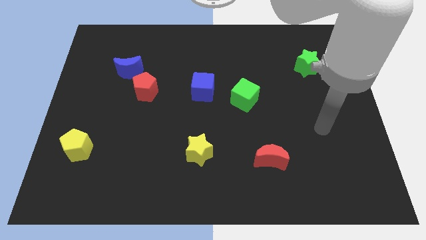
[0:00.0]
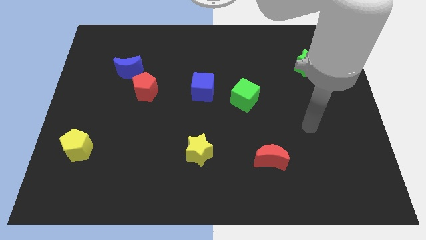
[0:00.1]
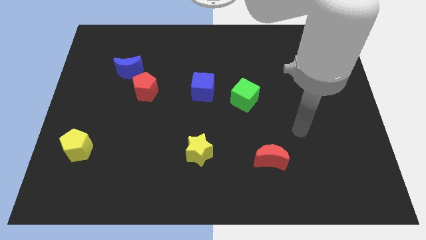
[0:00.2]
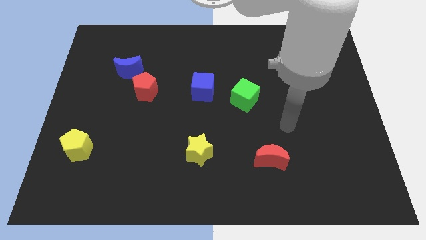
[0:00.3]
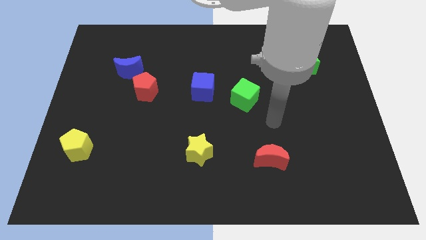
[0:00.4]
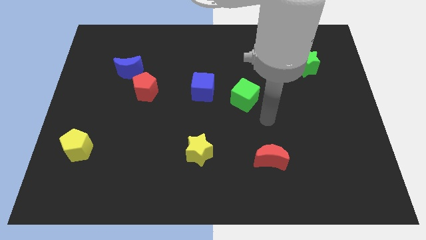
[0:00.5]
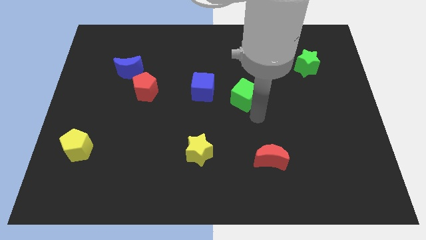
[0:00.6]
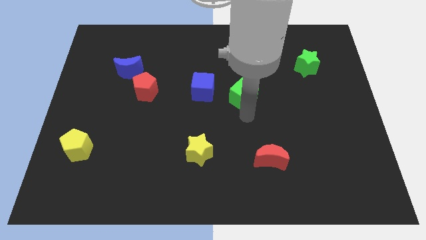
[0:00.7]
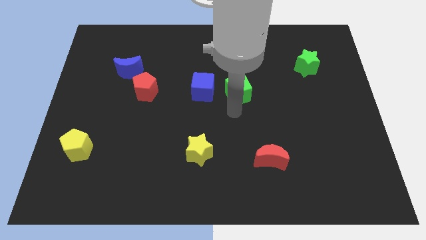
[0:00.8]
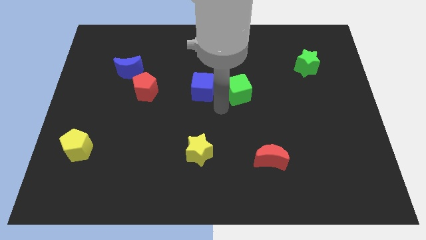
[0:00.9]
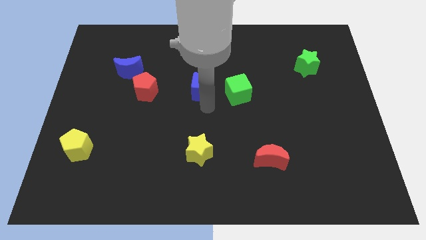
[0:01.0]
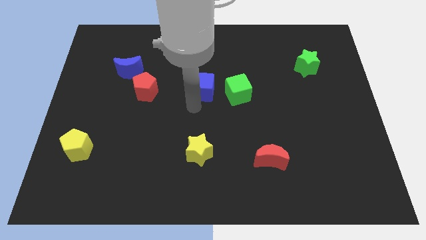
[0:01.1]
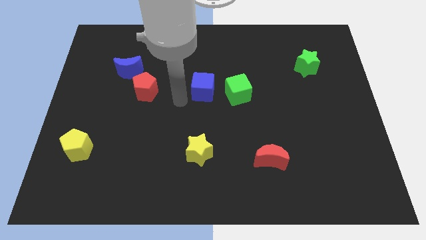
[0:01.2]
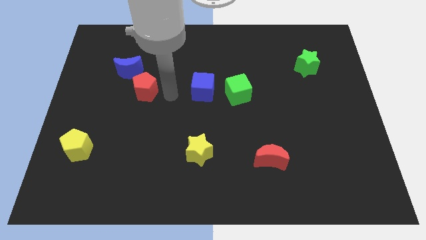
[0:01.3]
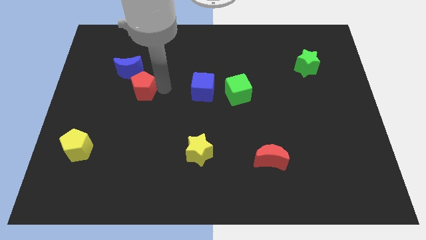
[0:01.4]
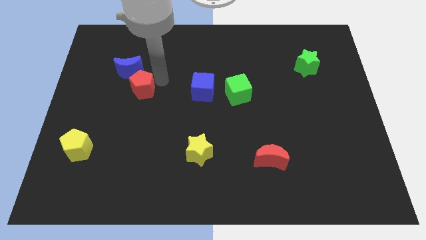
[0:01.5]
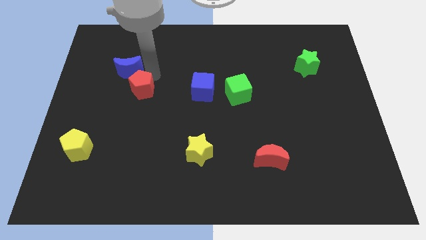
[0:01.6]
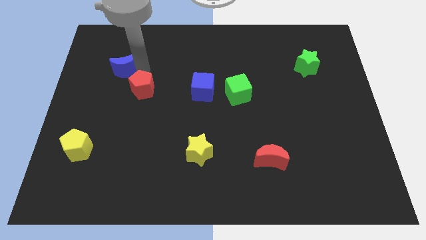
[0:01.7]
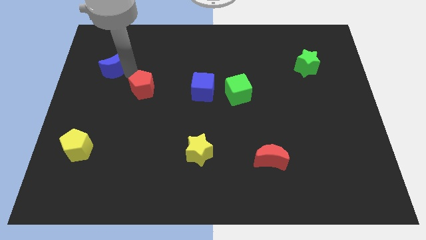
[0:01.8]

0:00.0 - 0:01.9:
pull the red pentagon apart from the blue moon

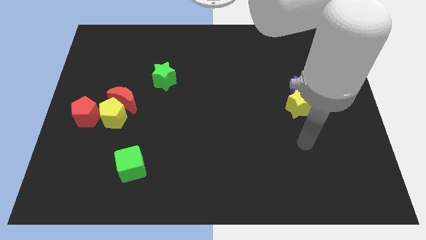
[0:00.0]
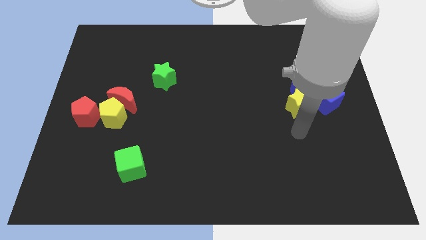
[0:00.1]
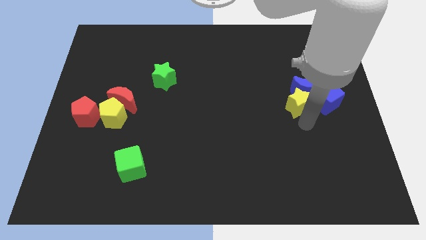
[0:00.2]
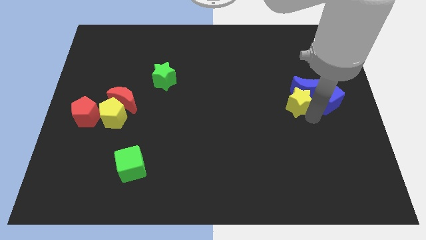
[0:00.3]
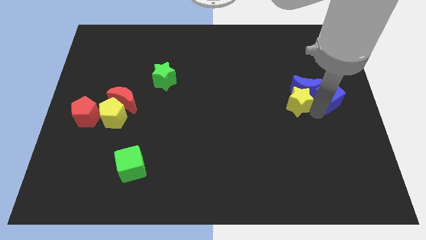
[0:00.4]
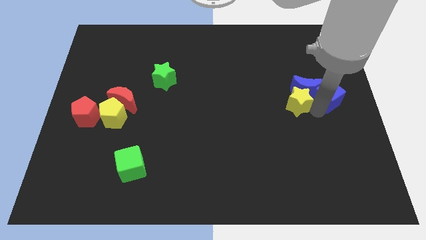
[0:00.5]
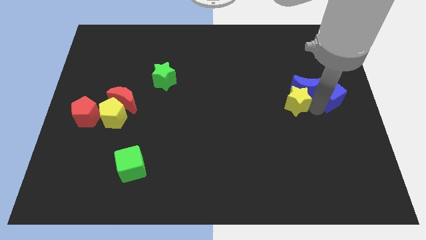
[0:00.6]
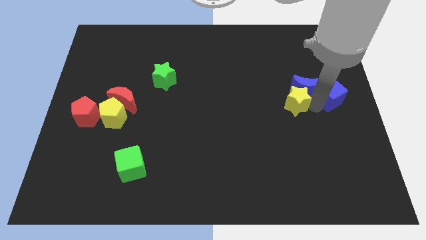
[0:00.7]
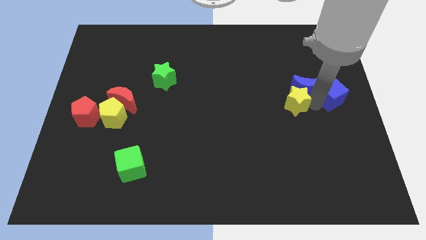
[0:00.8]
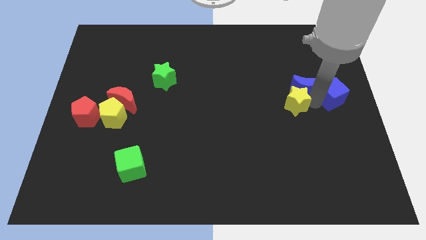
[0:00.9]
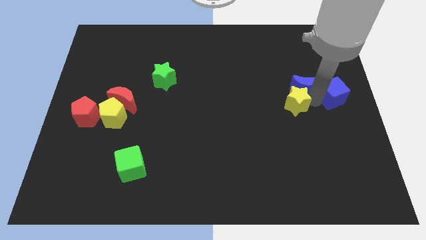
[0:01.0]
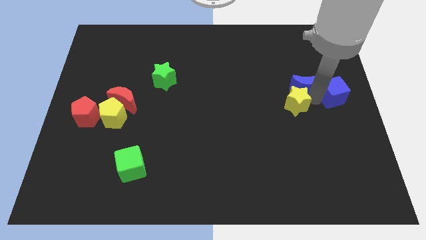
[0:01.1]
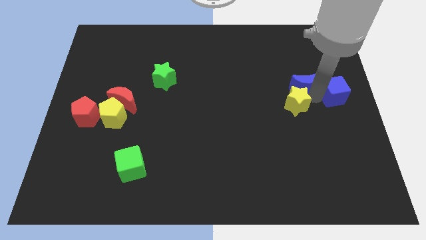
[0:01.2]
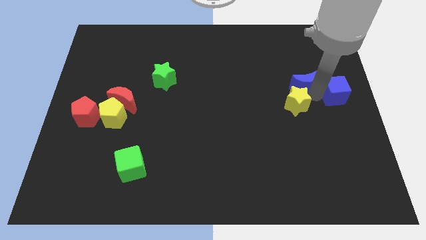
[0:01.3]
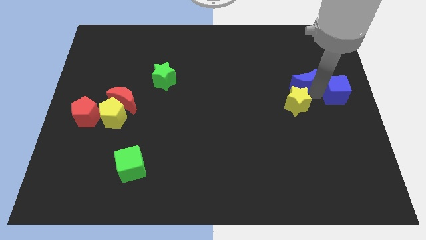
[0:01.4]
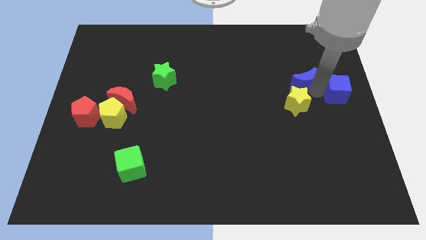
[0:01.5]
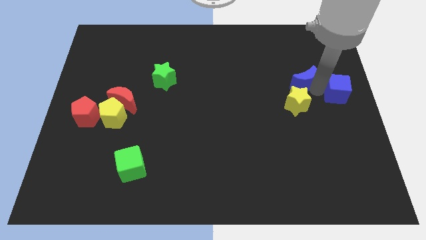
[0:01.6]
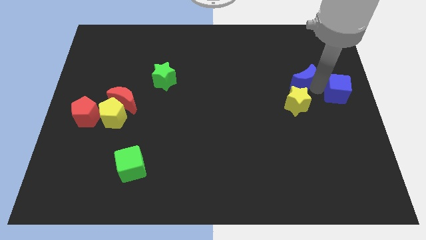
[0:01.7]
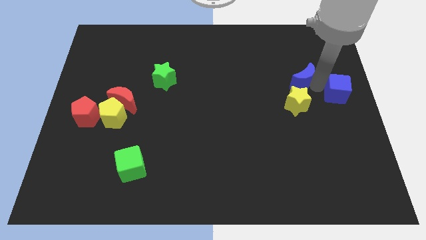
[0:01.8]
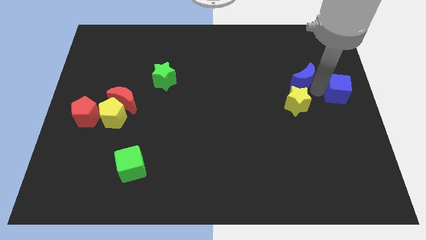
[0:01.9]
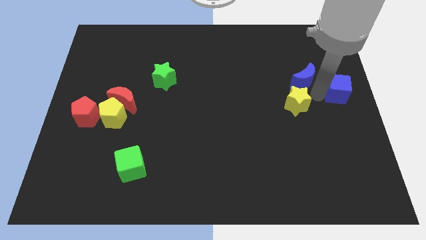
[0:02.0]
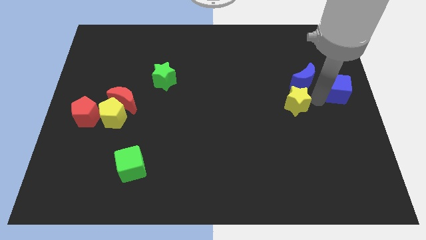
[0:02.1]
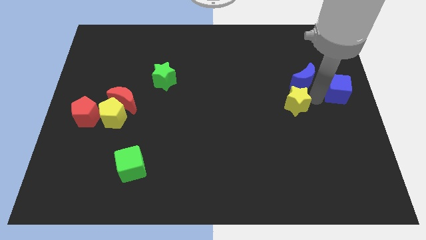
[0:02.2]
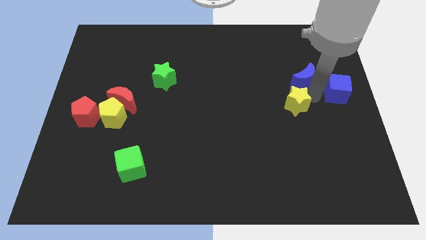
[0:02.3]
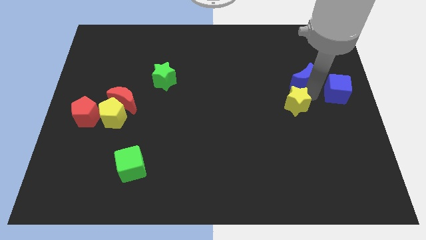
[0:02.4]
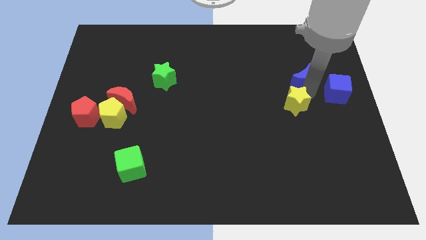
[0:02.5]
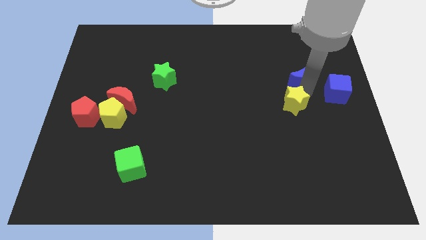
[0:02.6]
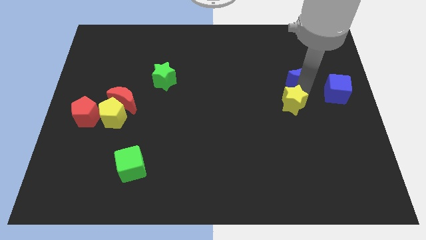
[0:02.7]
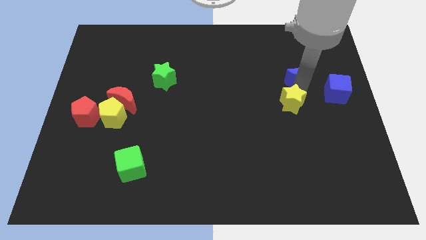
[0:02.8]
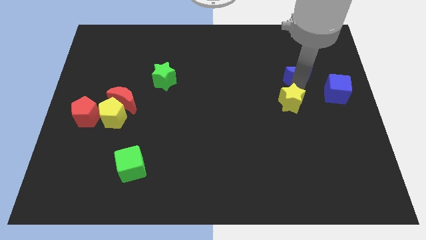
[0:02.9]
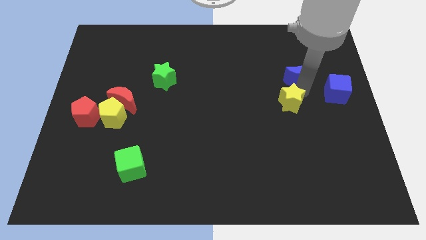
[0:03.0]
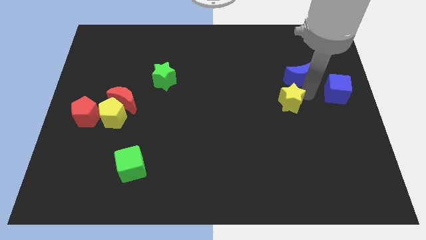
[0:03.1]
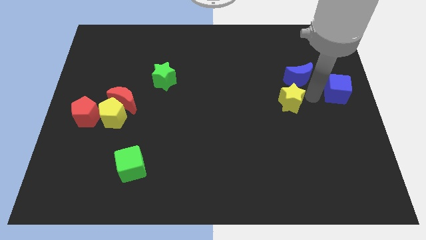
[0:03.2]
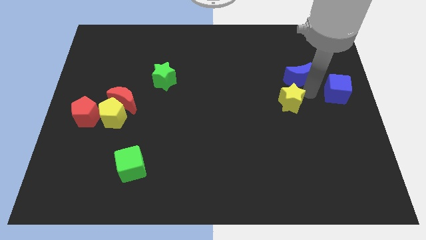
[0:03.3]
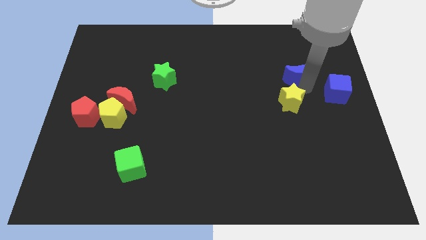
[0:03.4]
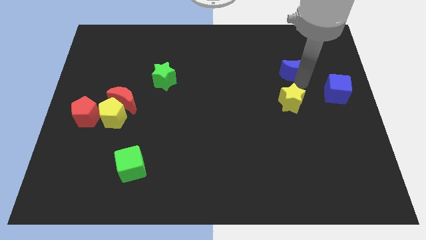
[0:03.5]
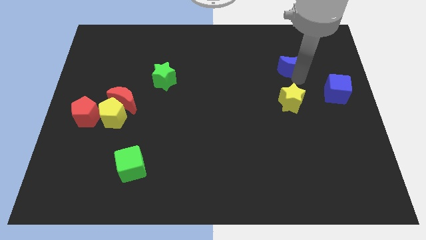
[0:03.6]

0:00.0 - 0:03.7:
move the blue moon away from the yellow star and blue cube

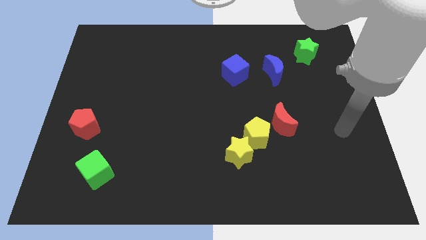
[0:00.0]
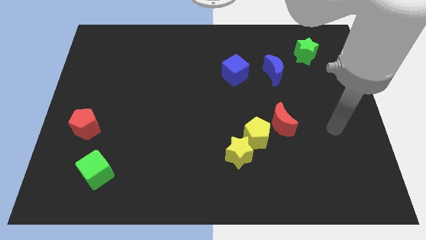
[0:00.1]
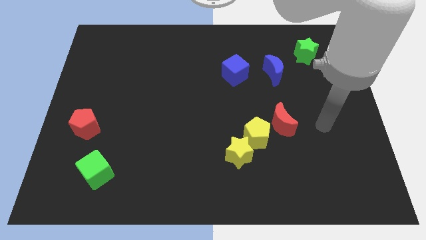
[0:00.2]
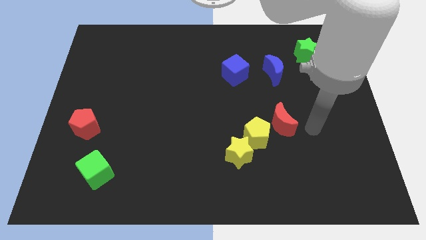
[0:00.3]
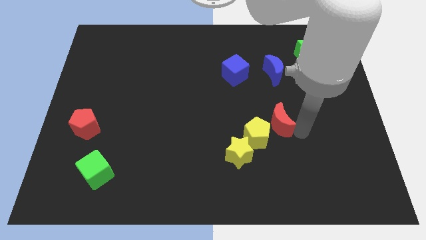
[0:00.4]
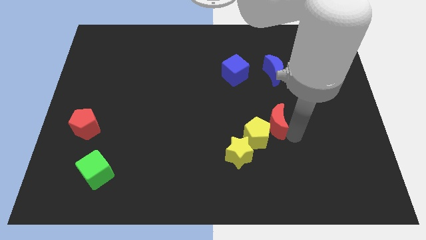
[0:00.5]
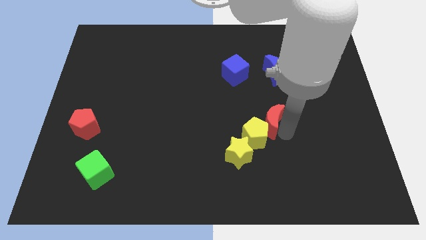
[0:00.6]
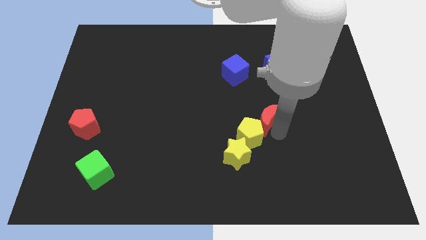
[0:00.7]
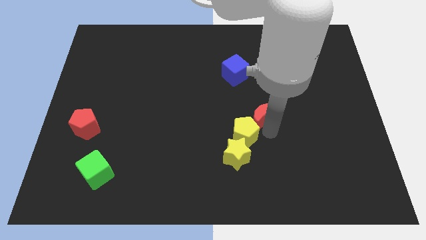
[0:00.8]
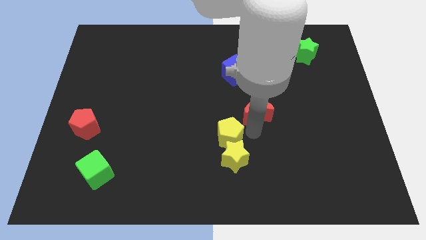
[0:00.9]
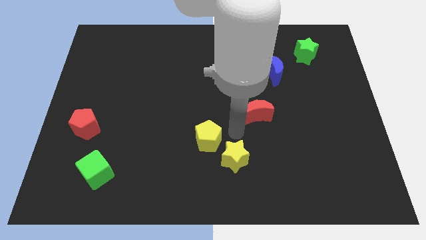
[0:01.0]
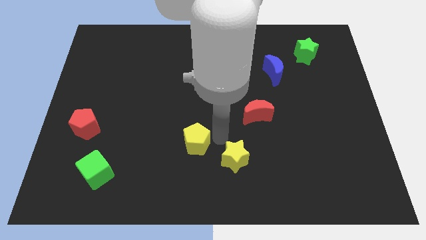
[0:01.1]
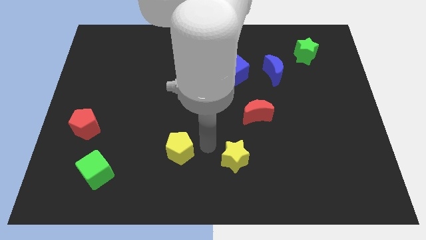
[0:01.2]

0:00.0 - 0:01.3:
move the yellow star away from the yellow pentagon

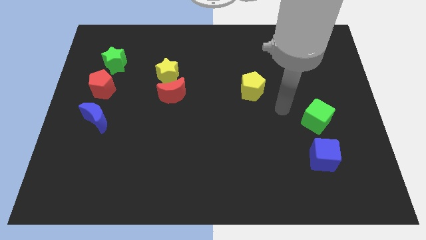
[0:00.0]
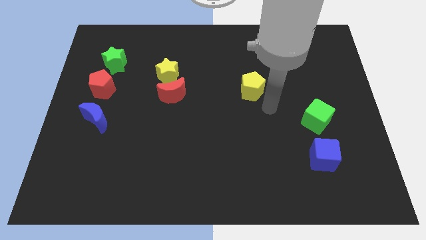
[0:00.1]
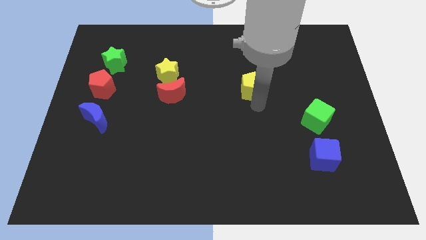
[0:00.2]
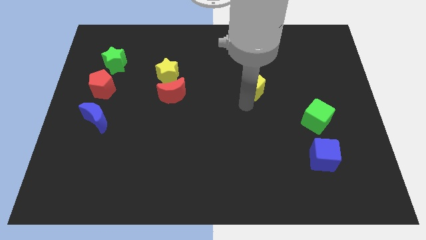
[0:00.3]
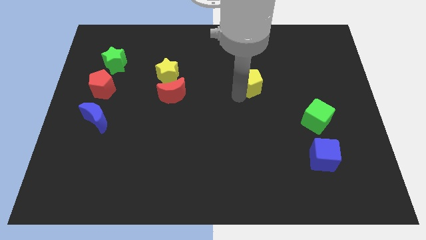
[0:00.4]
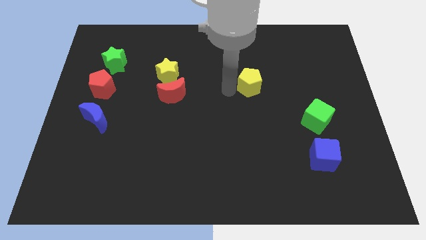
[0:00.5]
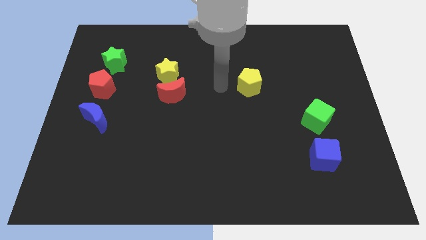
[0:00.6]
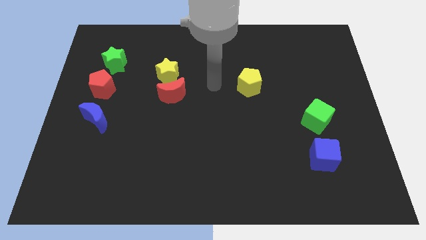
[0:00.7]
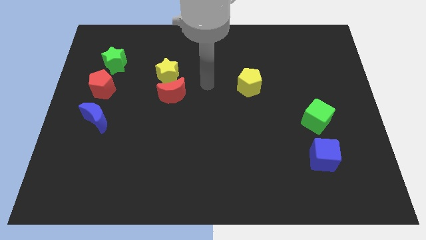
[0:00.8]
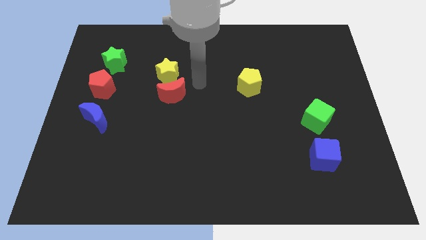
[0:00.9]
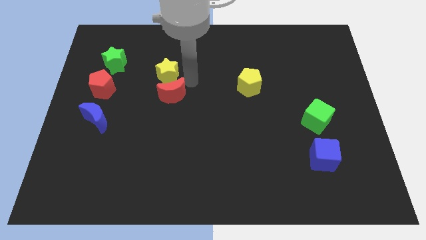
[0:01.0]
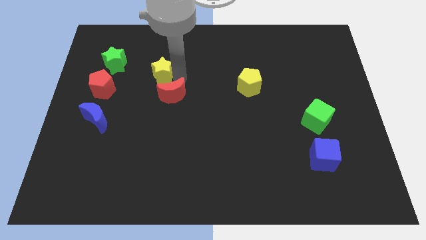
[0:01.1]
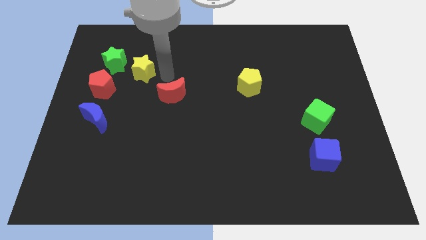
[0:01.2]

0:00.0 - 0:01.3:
separate the red moon from the yellow star

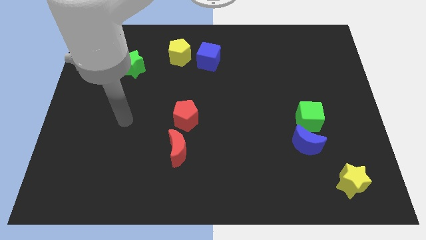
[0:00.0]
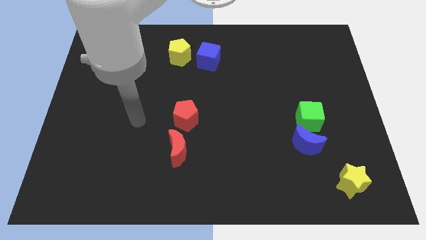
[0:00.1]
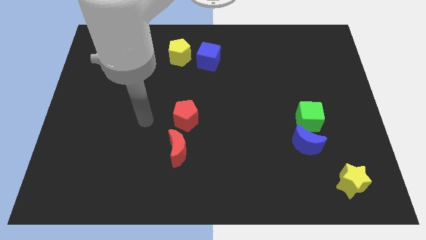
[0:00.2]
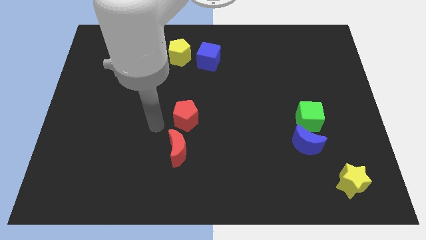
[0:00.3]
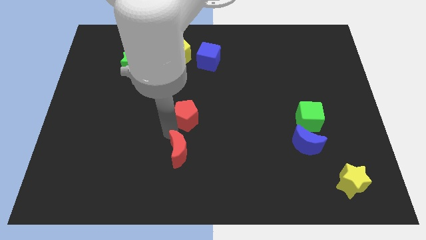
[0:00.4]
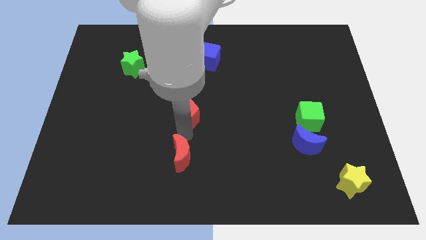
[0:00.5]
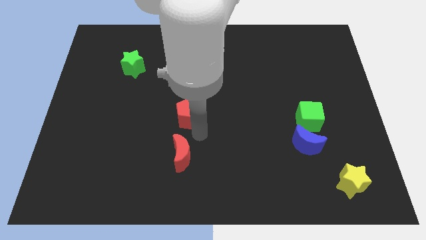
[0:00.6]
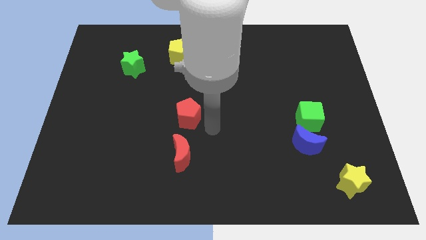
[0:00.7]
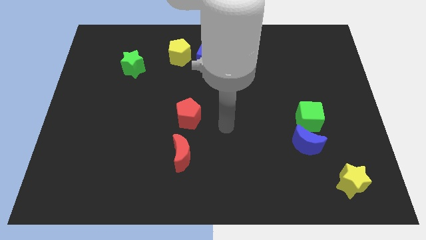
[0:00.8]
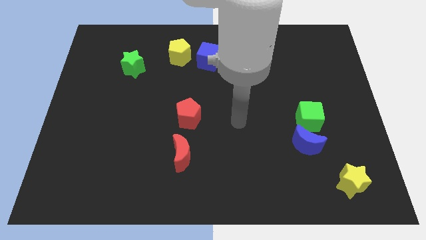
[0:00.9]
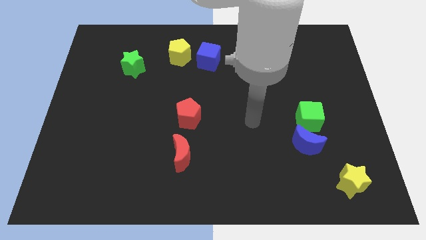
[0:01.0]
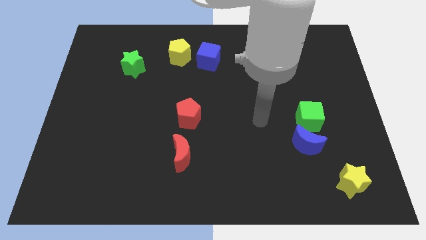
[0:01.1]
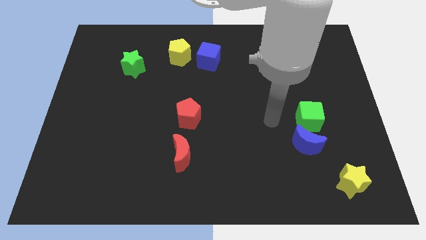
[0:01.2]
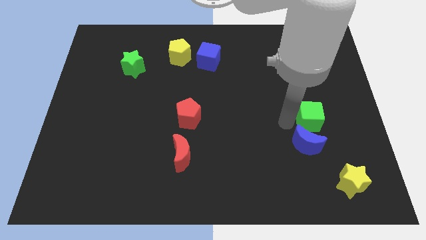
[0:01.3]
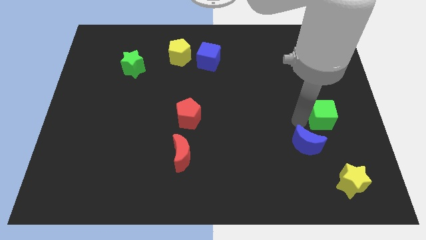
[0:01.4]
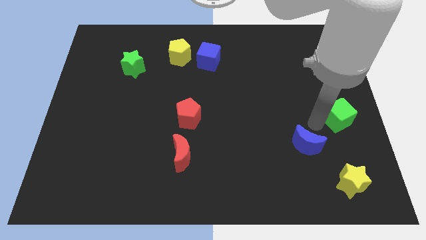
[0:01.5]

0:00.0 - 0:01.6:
separate the blue moon from the green cube
